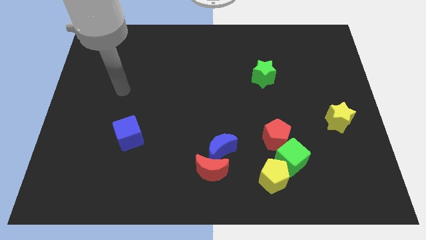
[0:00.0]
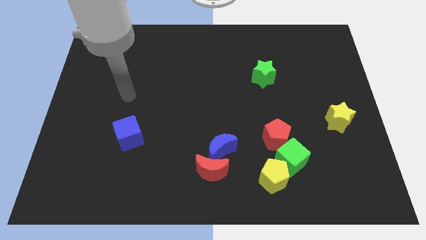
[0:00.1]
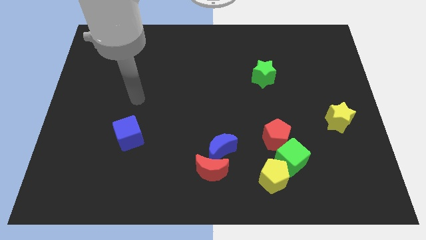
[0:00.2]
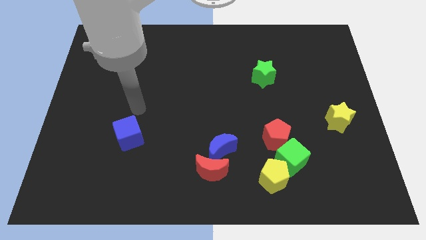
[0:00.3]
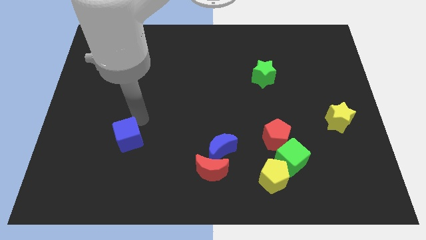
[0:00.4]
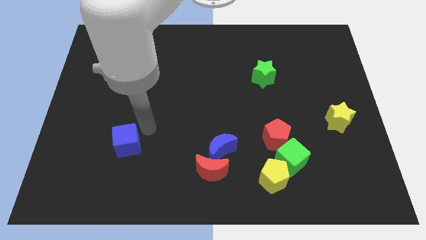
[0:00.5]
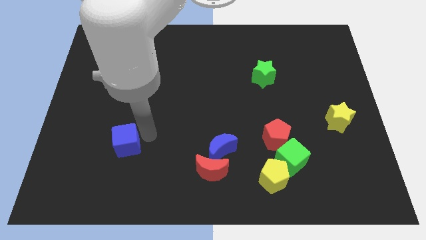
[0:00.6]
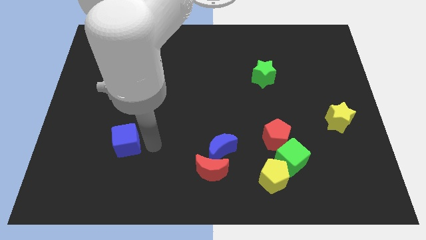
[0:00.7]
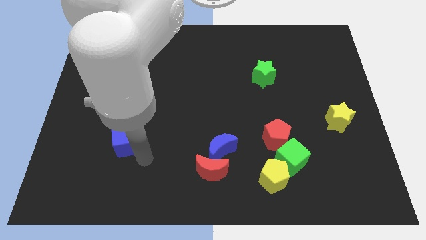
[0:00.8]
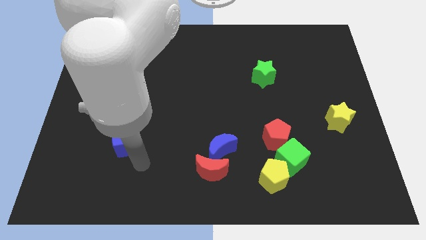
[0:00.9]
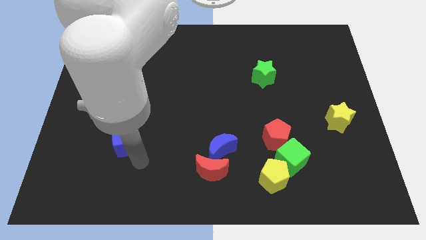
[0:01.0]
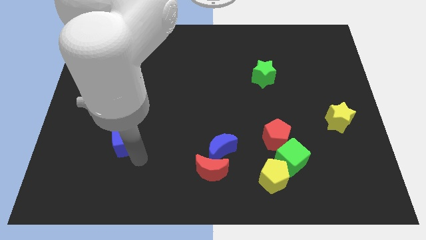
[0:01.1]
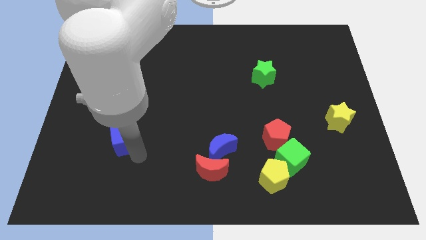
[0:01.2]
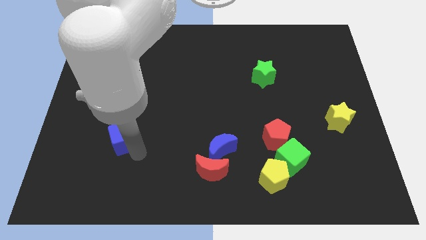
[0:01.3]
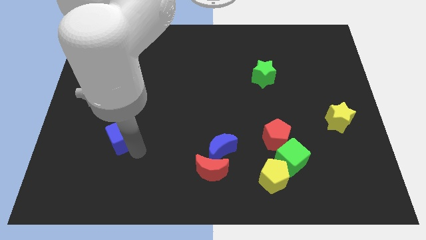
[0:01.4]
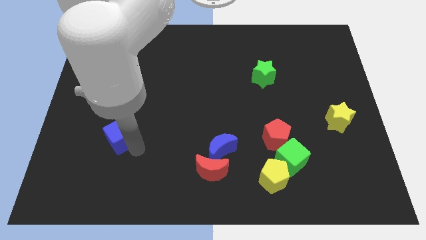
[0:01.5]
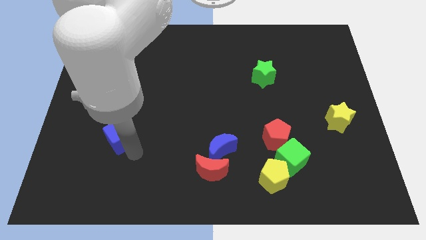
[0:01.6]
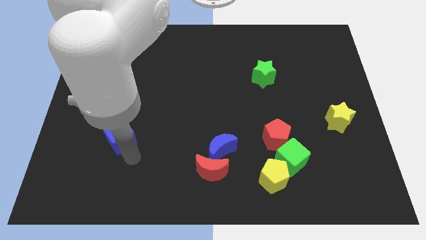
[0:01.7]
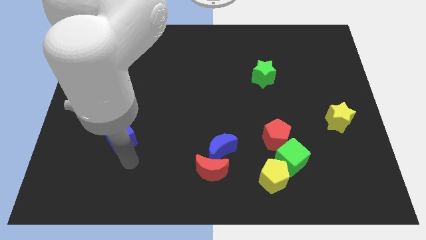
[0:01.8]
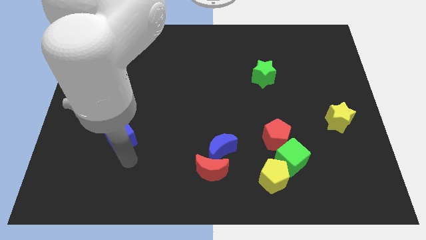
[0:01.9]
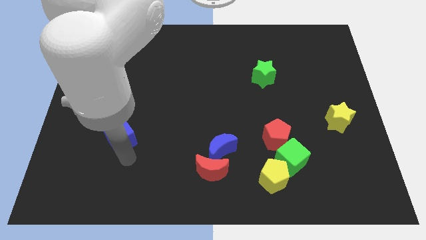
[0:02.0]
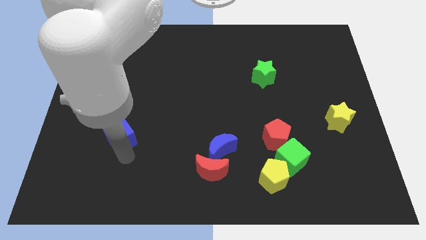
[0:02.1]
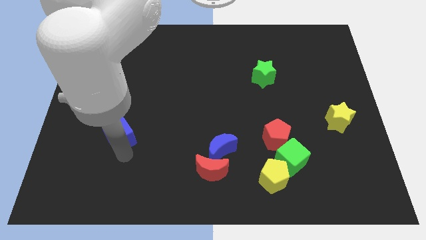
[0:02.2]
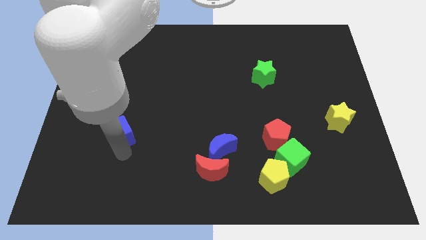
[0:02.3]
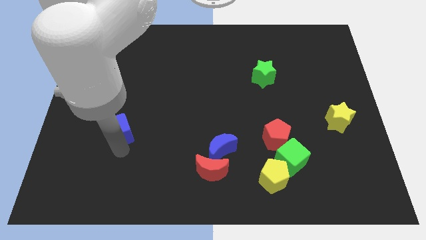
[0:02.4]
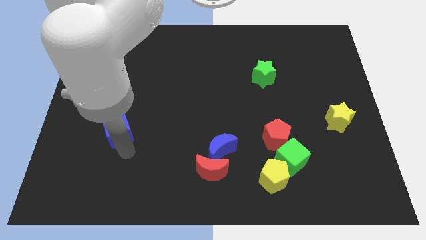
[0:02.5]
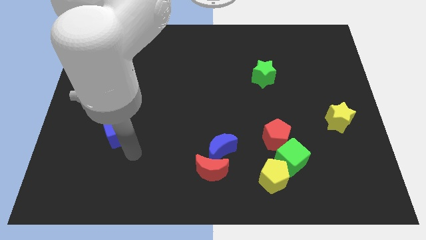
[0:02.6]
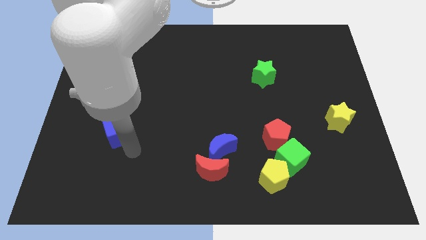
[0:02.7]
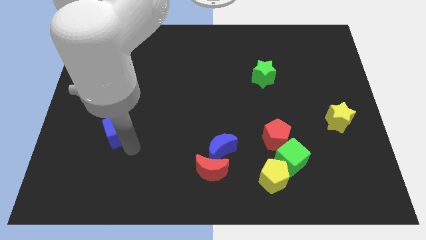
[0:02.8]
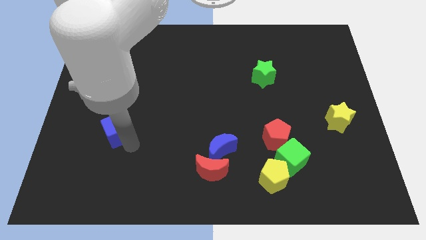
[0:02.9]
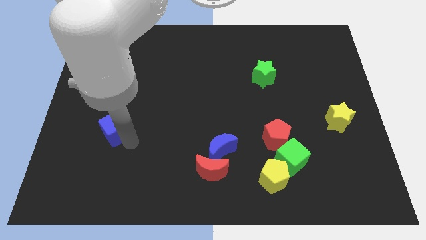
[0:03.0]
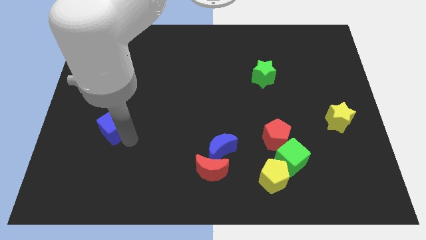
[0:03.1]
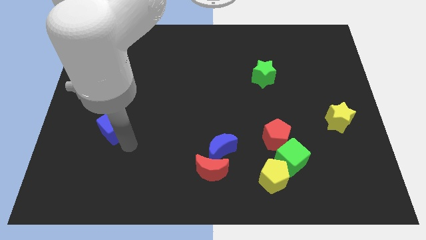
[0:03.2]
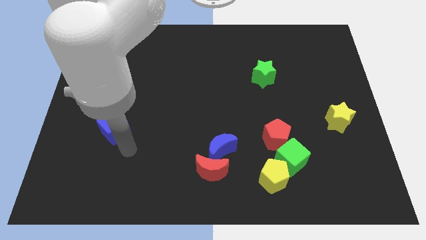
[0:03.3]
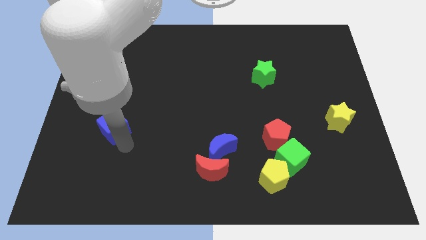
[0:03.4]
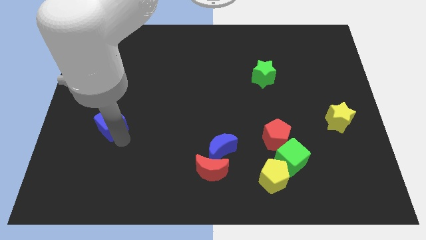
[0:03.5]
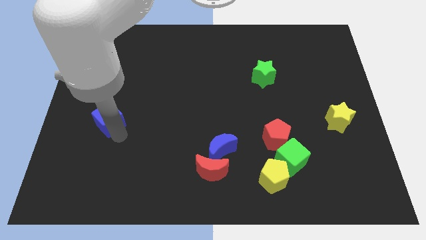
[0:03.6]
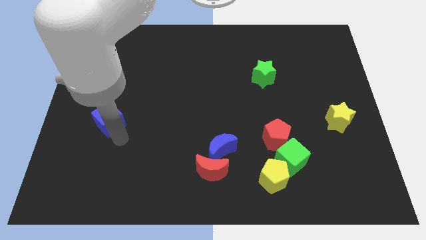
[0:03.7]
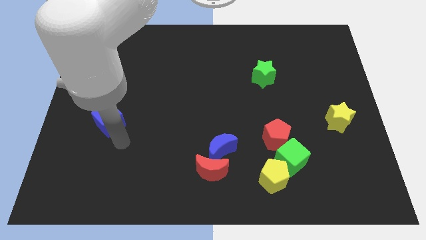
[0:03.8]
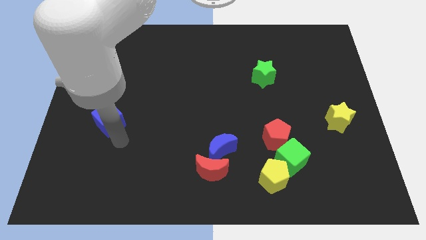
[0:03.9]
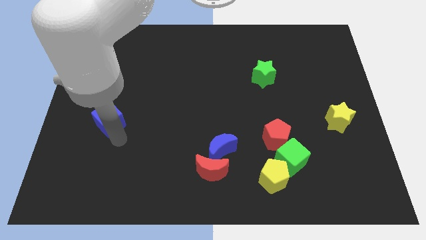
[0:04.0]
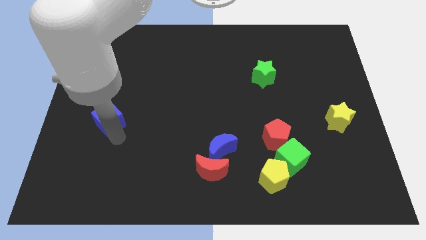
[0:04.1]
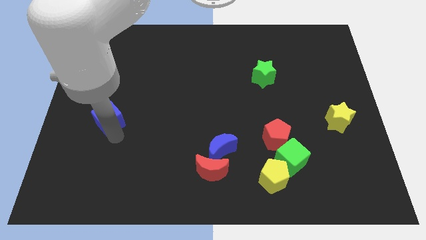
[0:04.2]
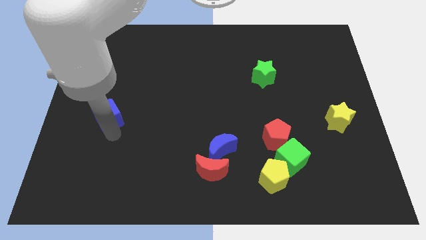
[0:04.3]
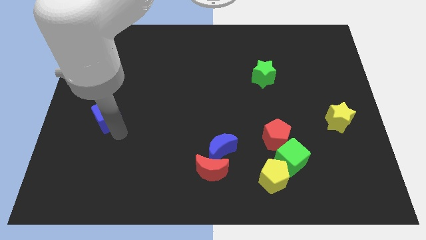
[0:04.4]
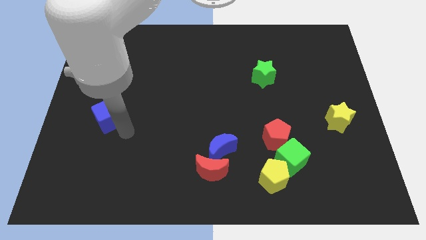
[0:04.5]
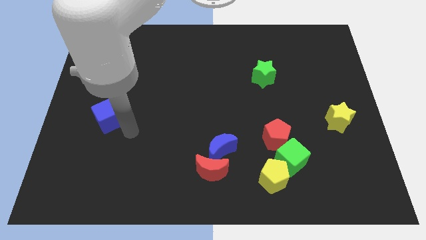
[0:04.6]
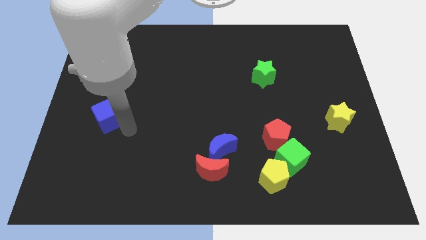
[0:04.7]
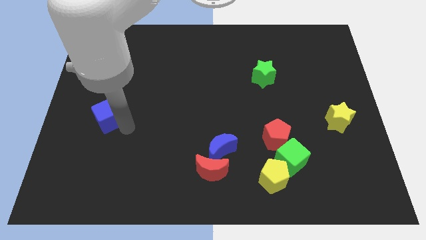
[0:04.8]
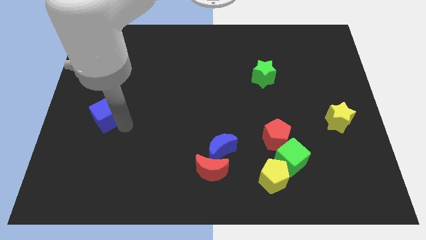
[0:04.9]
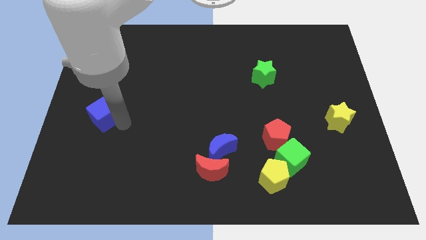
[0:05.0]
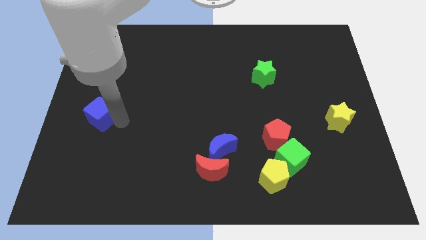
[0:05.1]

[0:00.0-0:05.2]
put the blue cube to the center left

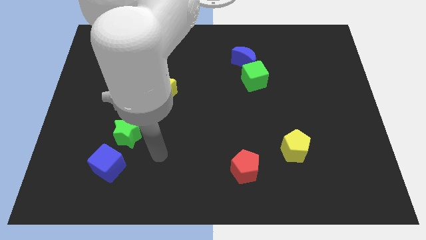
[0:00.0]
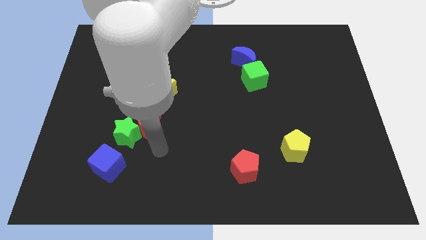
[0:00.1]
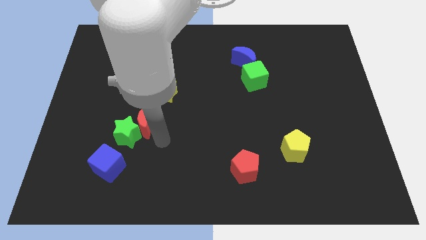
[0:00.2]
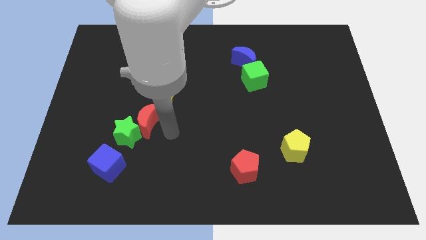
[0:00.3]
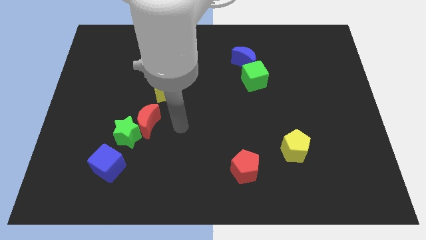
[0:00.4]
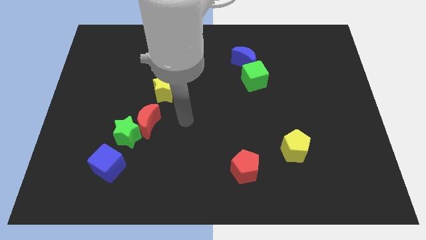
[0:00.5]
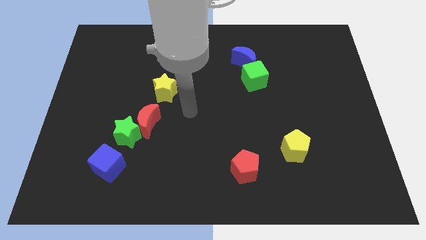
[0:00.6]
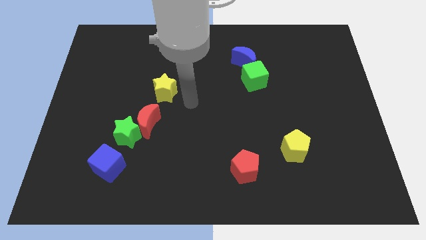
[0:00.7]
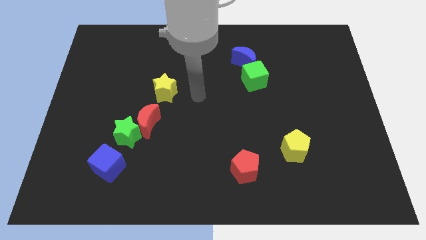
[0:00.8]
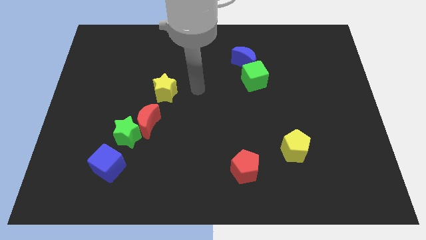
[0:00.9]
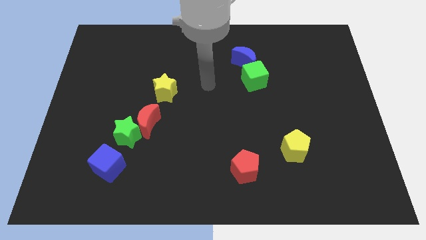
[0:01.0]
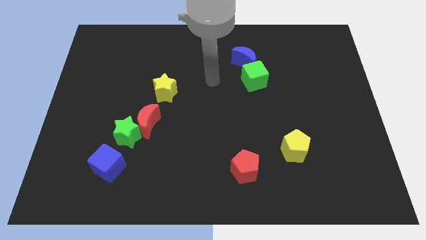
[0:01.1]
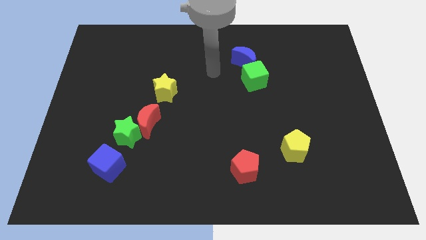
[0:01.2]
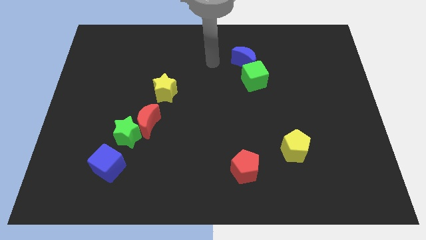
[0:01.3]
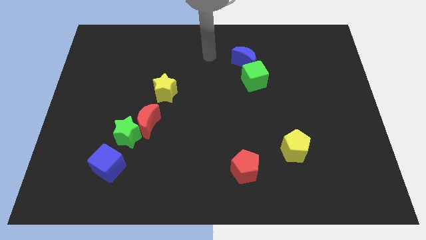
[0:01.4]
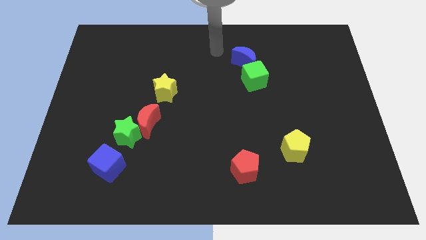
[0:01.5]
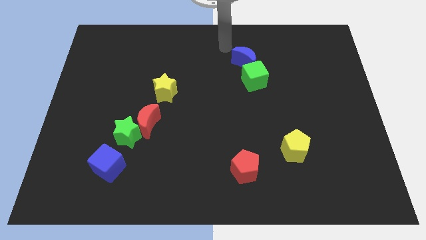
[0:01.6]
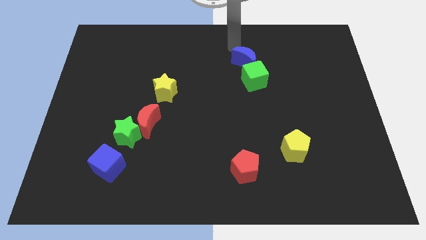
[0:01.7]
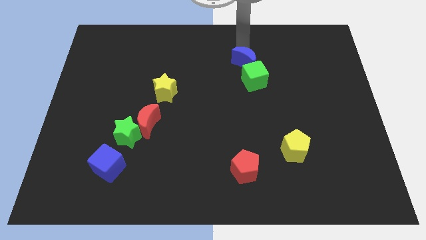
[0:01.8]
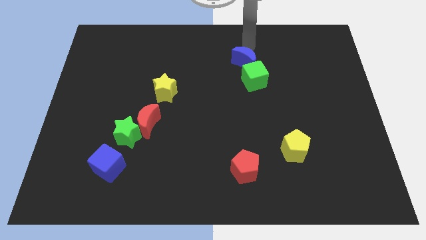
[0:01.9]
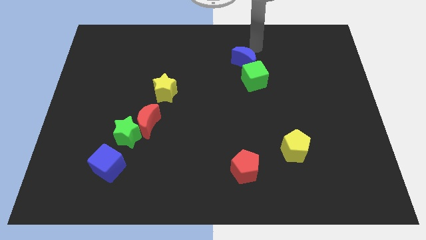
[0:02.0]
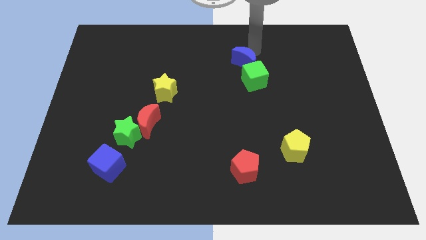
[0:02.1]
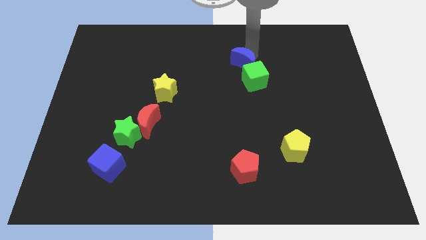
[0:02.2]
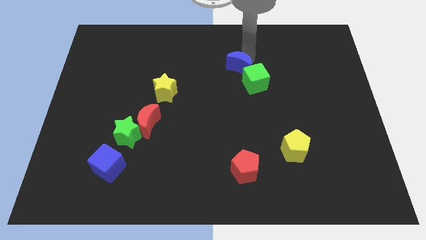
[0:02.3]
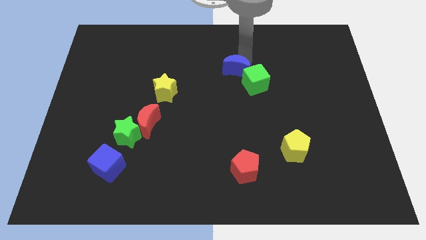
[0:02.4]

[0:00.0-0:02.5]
push the blue moon to the center of the board
